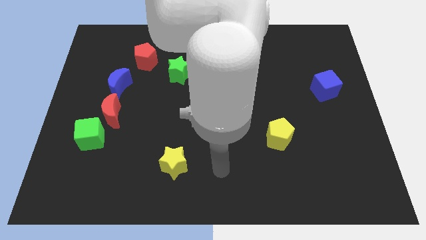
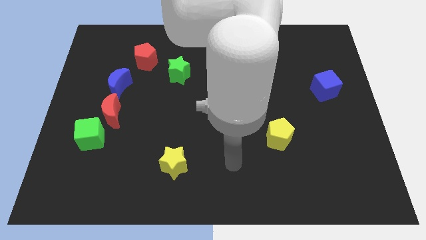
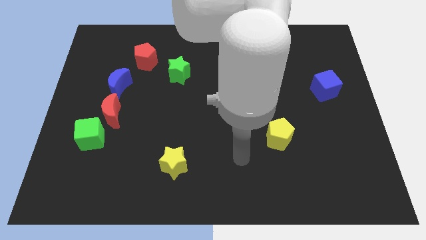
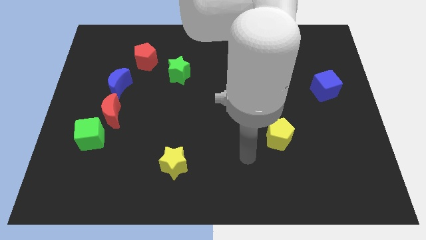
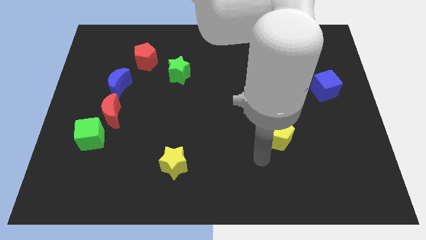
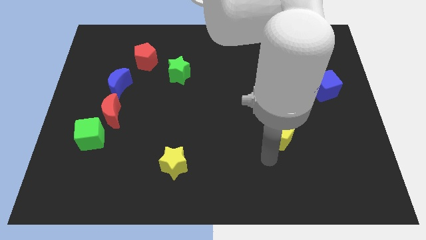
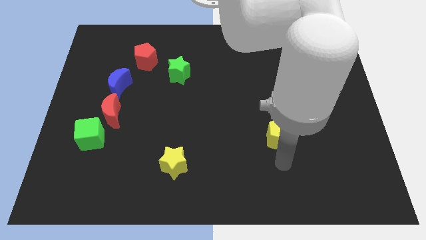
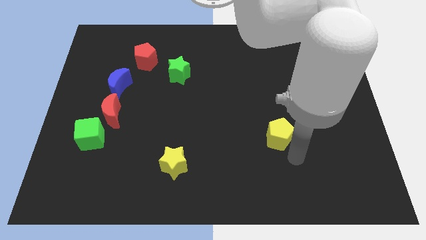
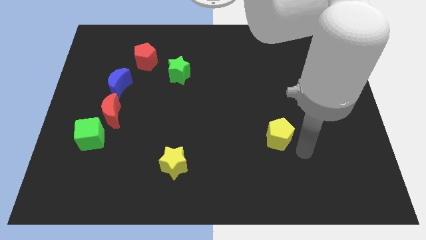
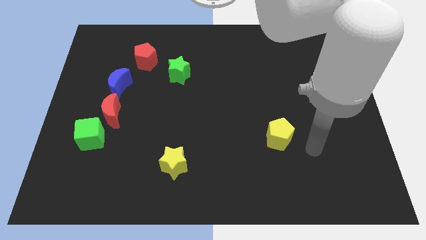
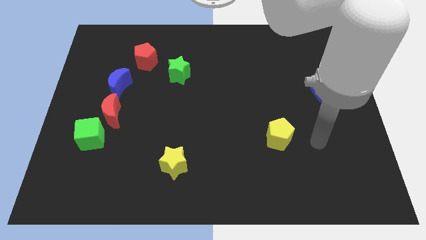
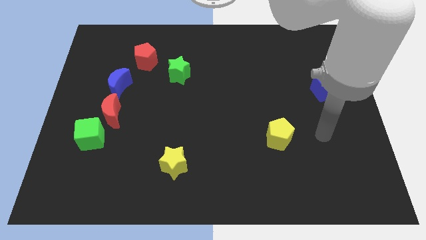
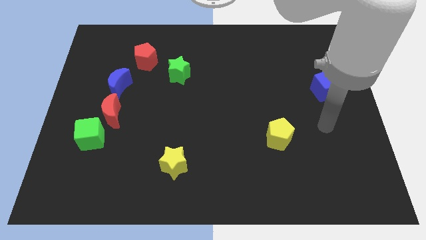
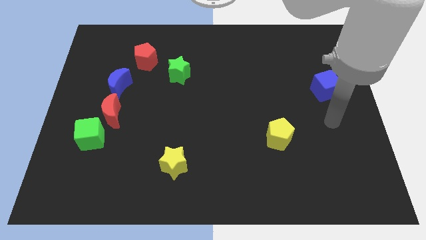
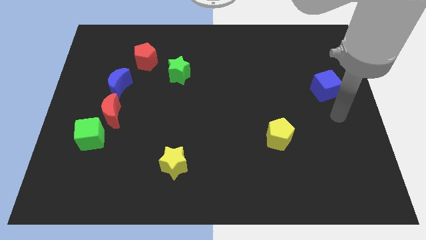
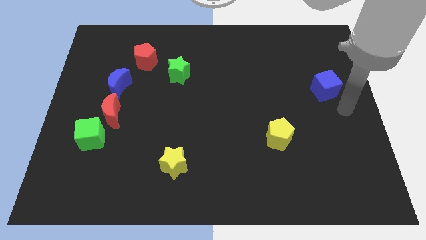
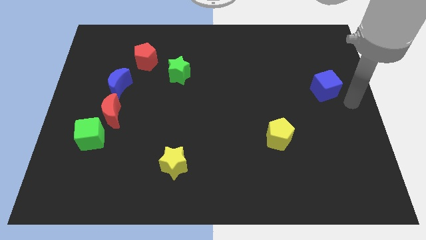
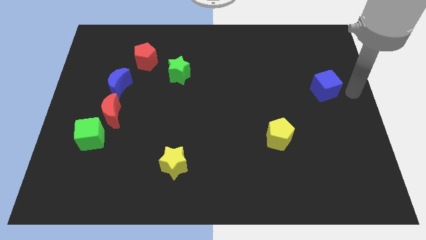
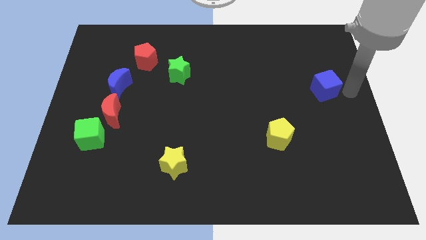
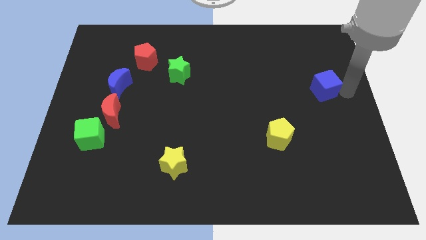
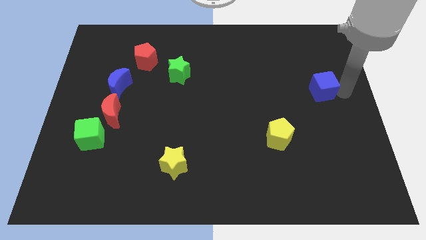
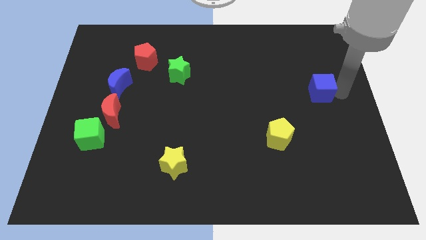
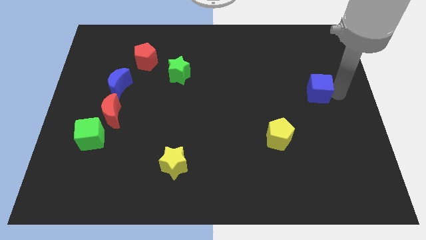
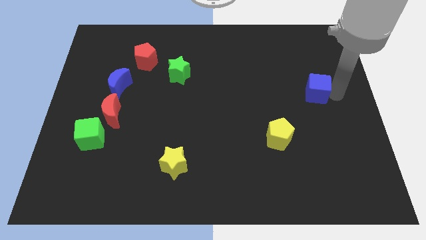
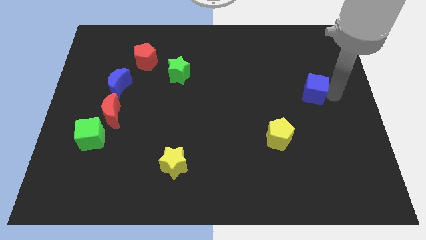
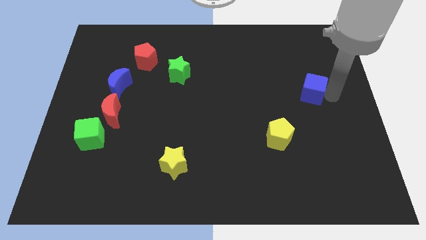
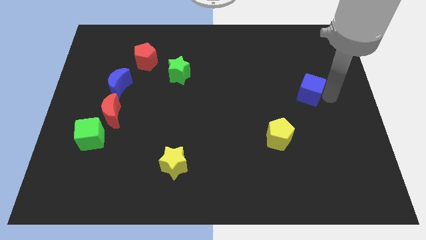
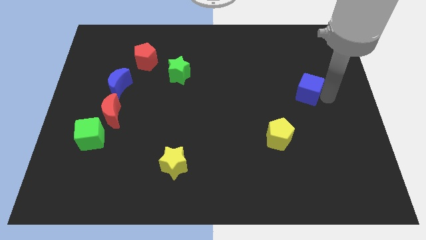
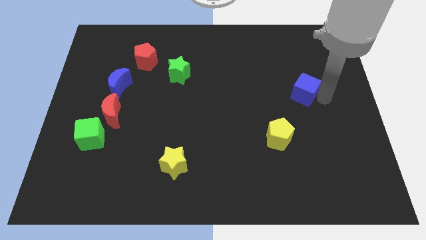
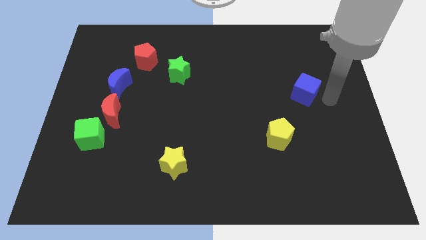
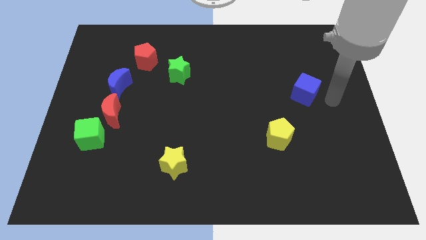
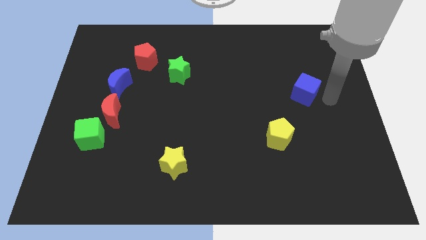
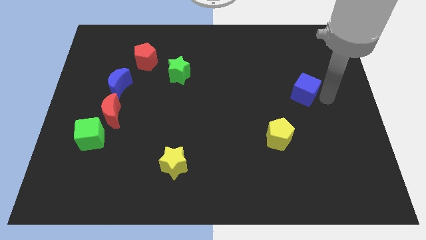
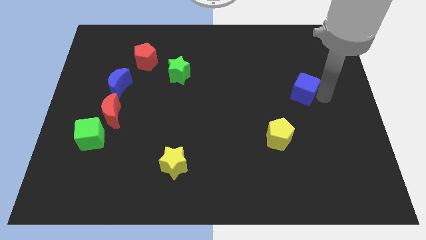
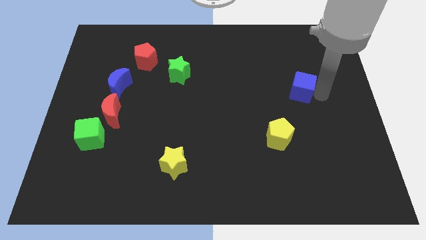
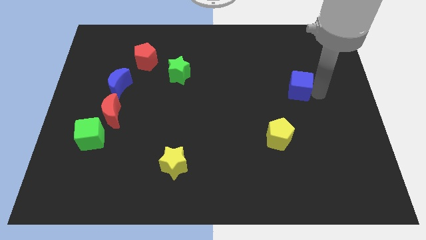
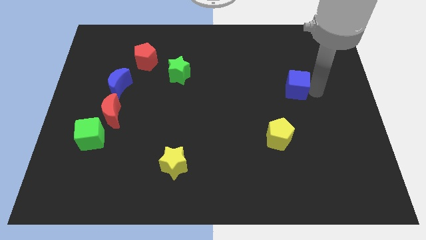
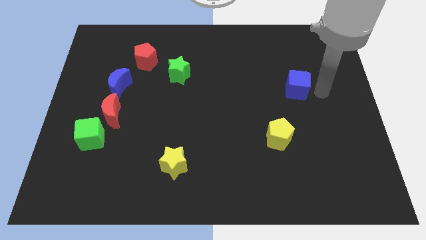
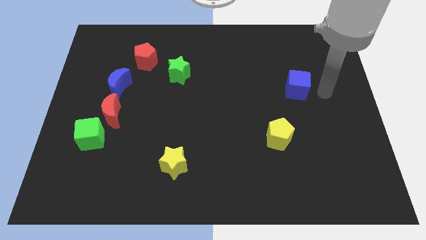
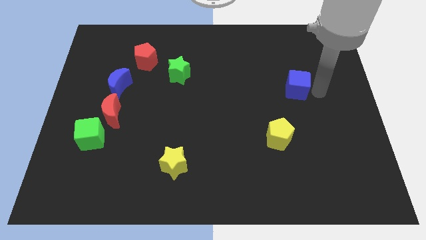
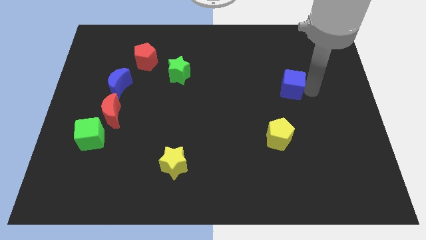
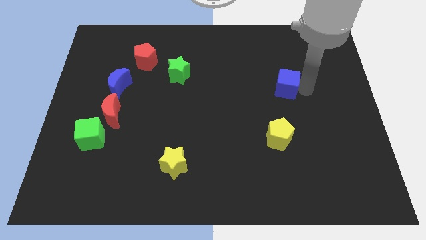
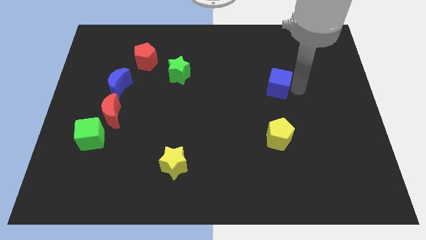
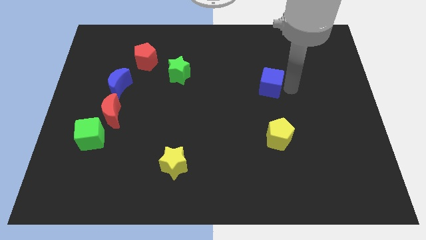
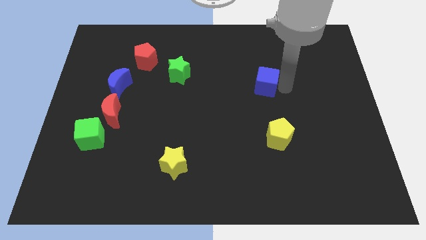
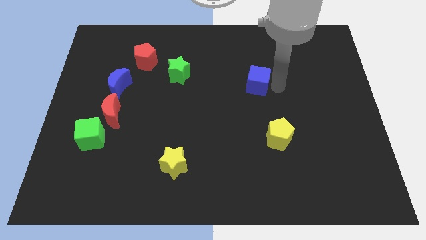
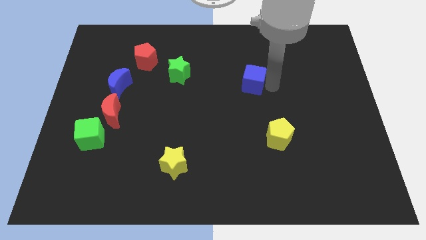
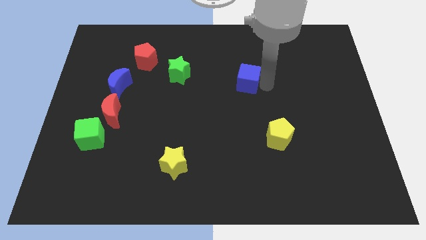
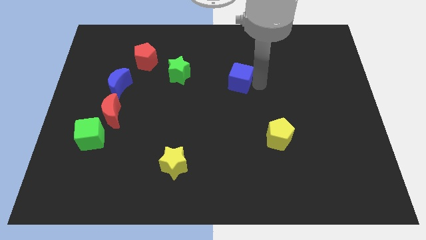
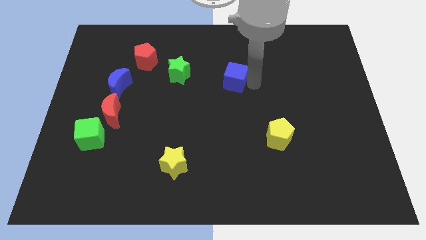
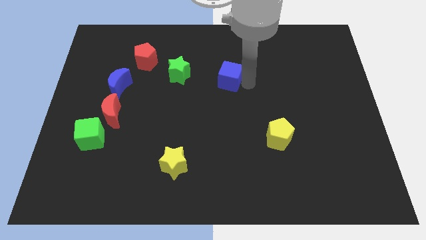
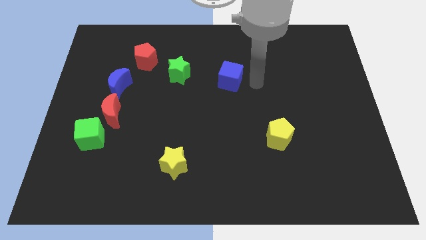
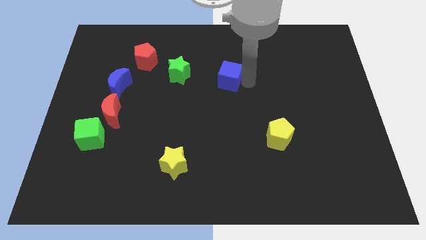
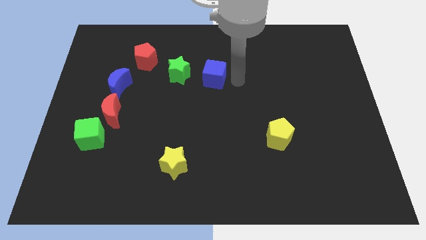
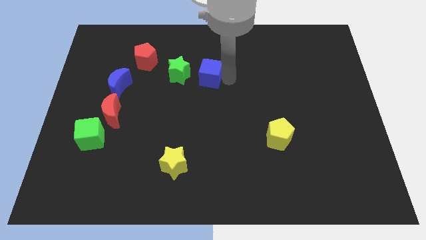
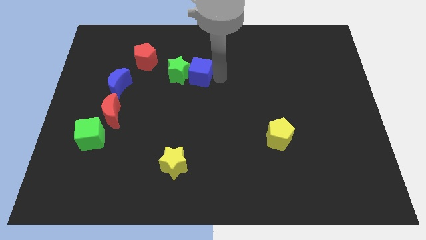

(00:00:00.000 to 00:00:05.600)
move the blue cube close to the green star
